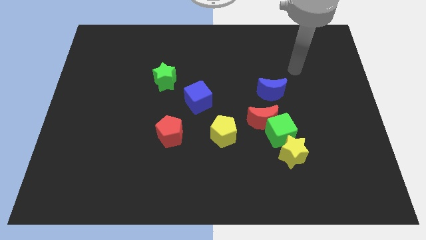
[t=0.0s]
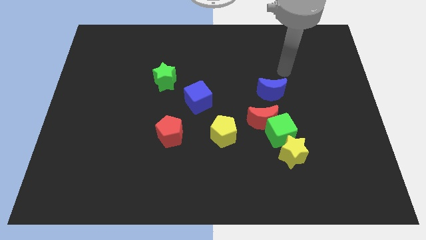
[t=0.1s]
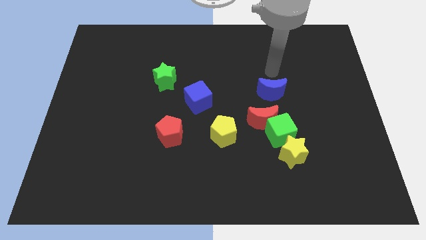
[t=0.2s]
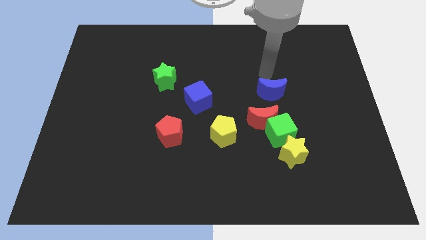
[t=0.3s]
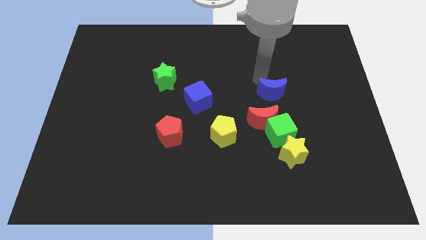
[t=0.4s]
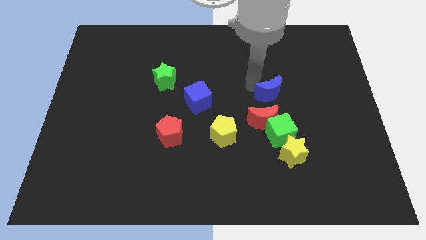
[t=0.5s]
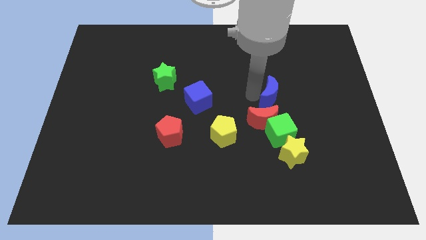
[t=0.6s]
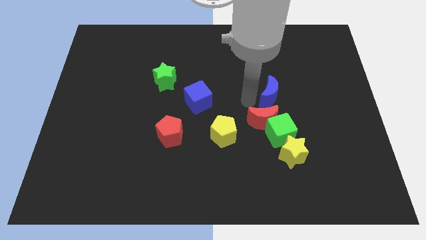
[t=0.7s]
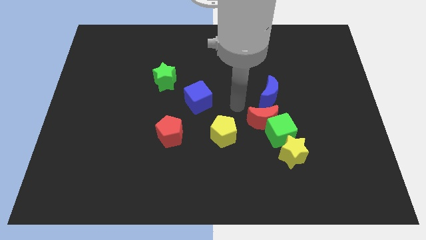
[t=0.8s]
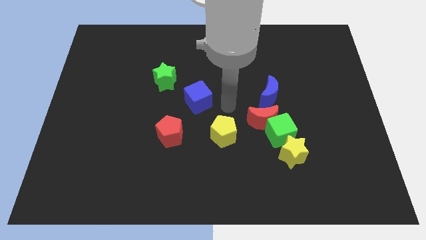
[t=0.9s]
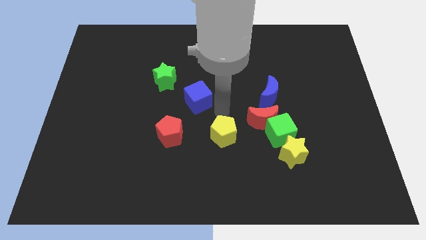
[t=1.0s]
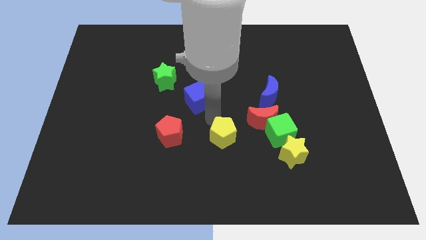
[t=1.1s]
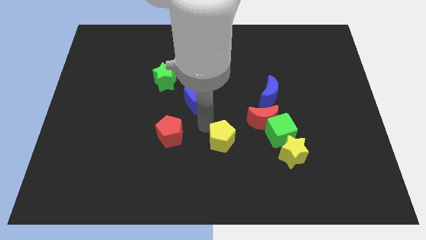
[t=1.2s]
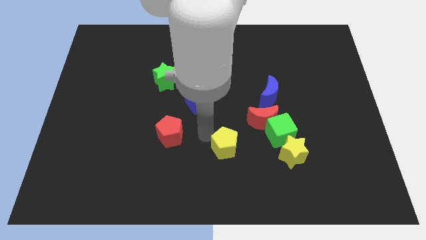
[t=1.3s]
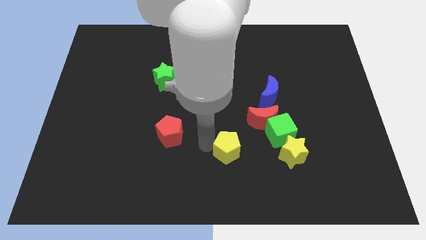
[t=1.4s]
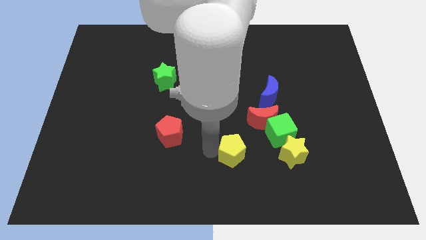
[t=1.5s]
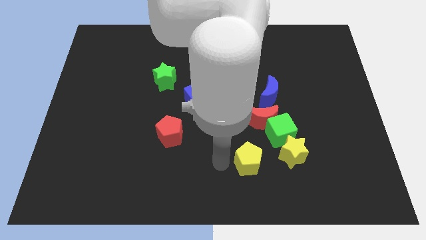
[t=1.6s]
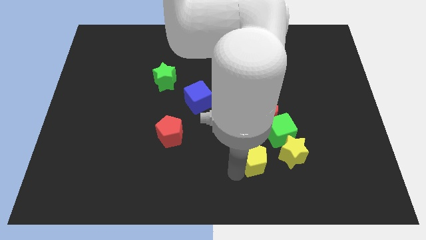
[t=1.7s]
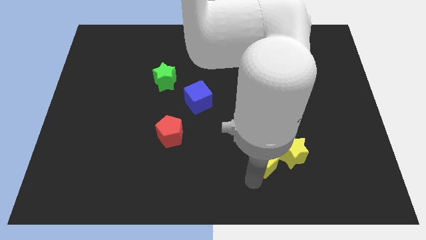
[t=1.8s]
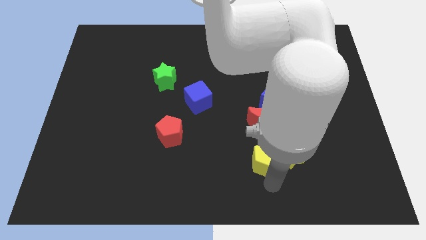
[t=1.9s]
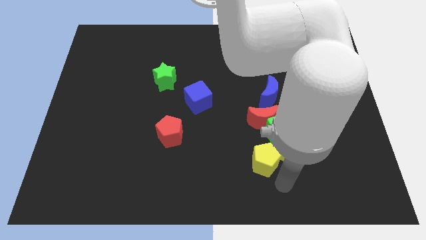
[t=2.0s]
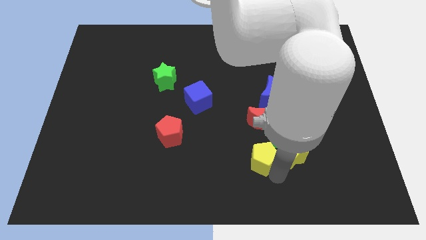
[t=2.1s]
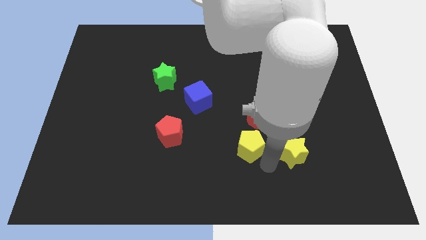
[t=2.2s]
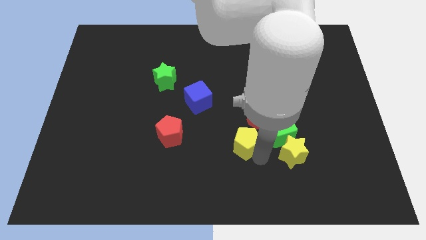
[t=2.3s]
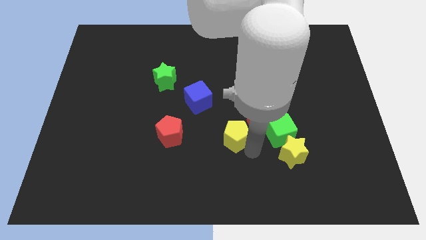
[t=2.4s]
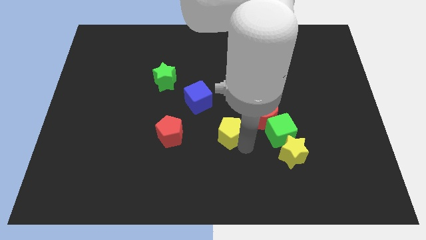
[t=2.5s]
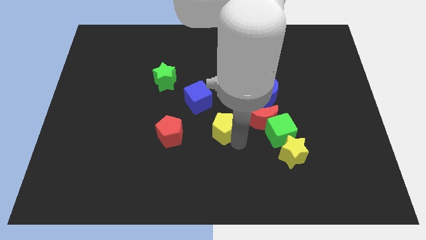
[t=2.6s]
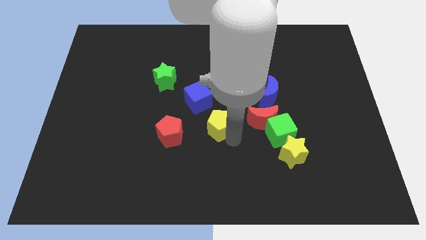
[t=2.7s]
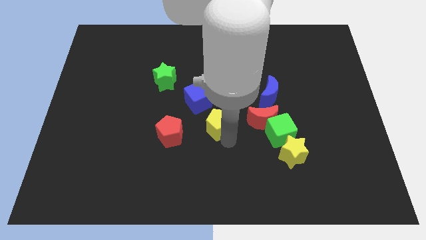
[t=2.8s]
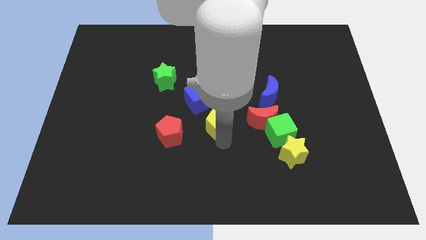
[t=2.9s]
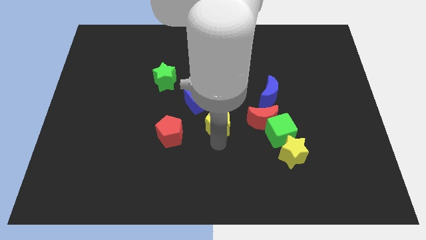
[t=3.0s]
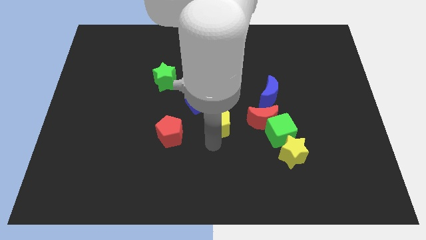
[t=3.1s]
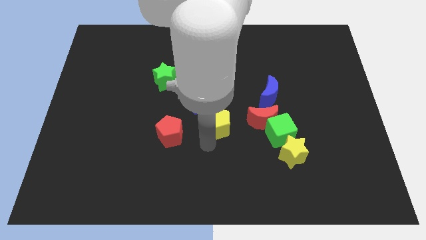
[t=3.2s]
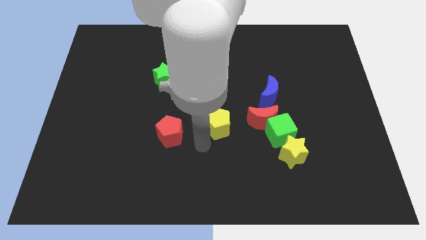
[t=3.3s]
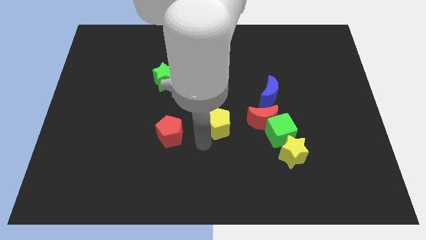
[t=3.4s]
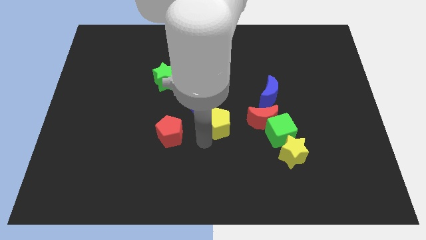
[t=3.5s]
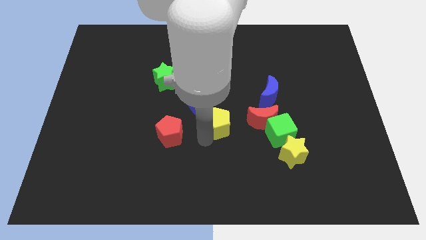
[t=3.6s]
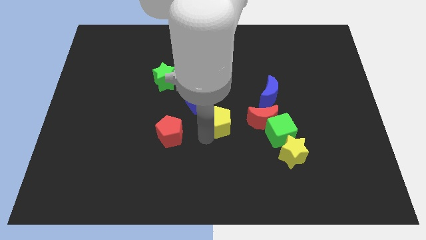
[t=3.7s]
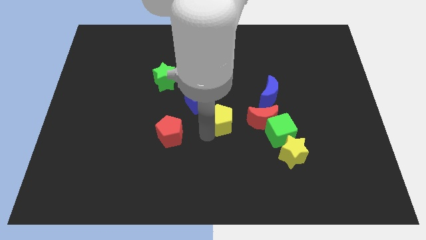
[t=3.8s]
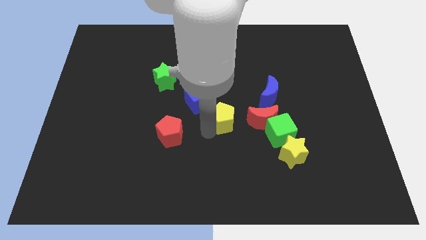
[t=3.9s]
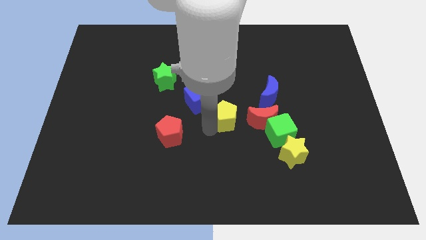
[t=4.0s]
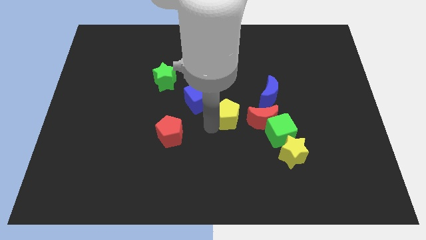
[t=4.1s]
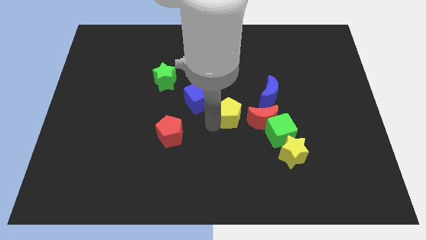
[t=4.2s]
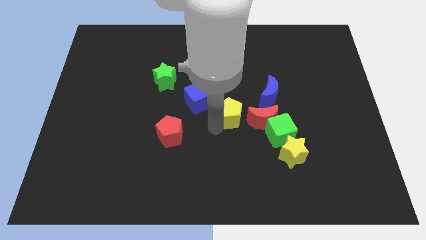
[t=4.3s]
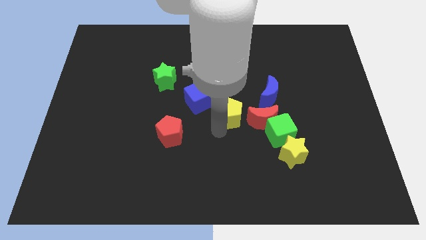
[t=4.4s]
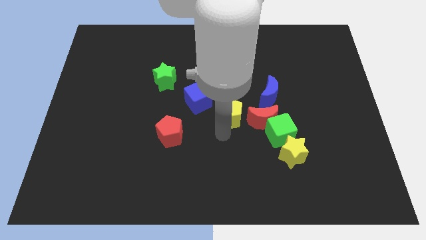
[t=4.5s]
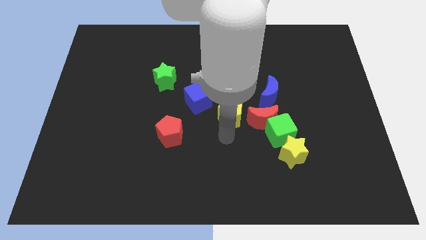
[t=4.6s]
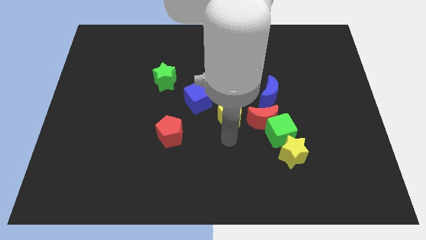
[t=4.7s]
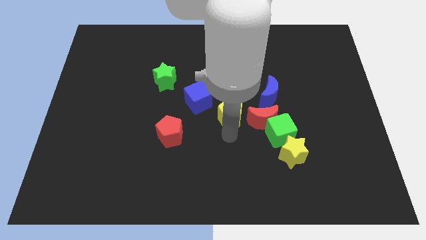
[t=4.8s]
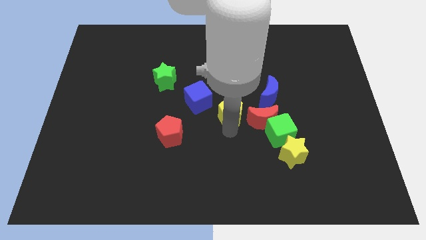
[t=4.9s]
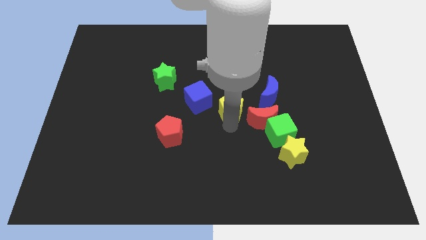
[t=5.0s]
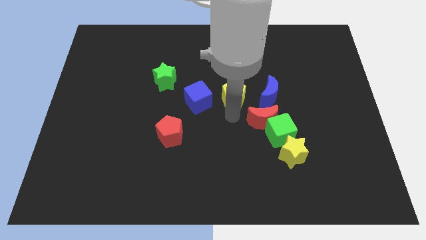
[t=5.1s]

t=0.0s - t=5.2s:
push the yellow pentagon upwards somewhat

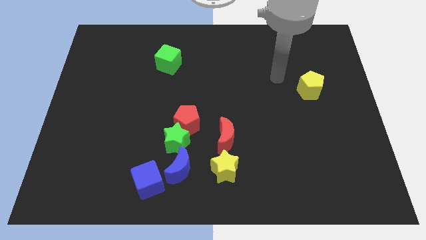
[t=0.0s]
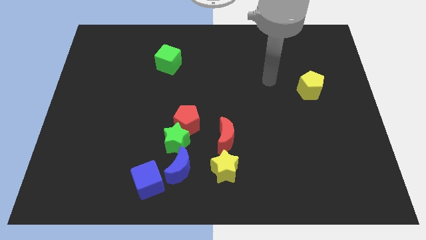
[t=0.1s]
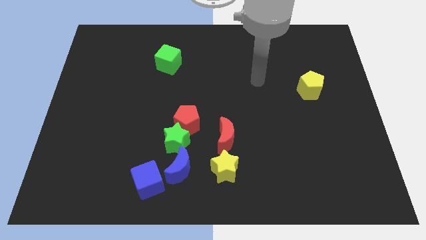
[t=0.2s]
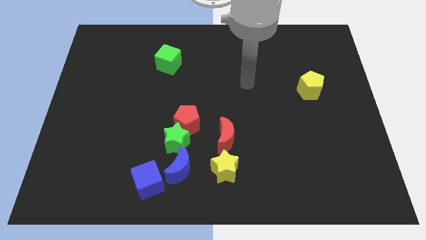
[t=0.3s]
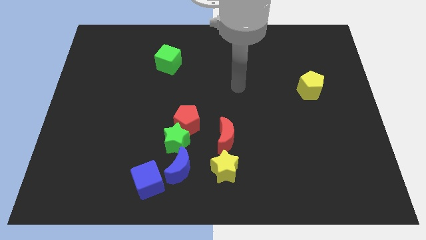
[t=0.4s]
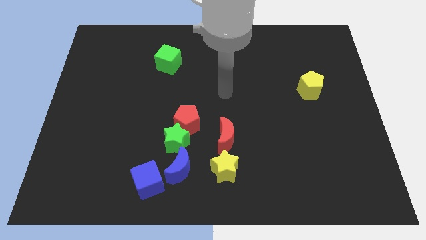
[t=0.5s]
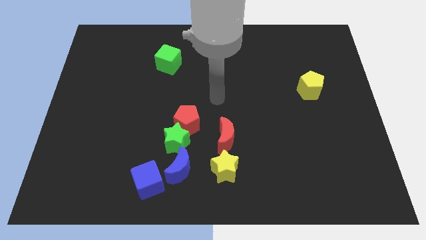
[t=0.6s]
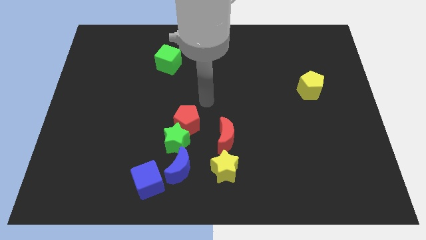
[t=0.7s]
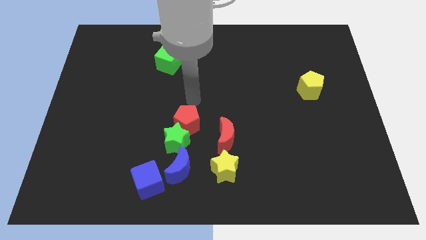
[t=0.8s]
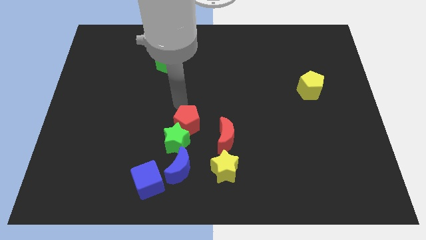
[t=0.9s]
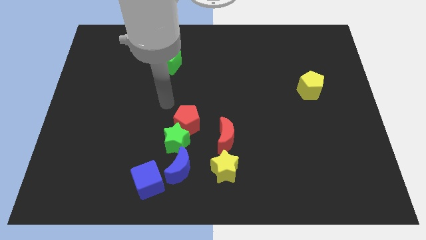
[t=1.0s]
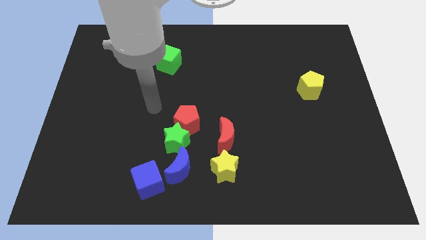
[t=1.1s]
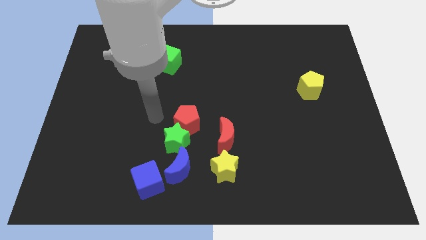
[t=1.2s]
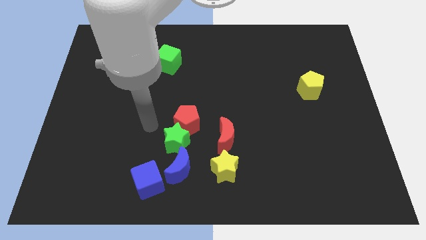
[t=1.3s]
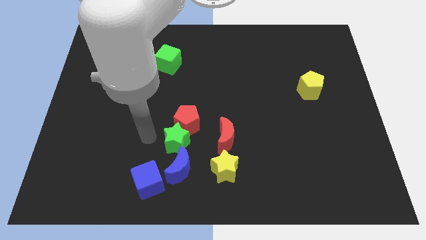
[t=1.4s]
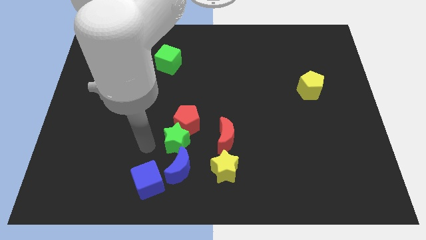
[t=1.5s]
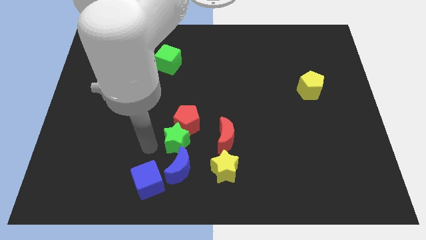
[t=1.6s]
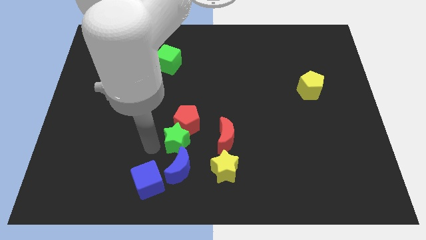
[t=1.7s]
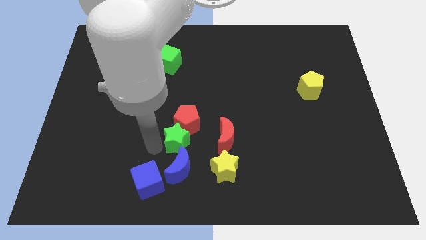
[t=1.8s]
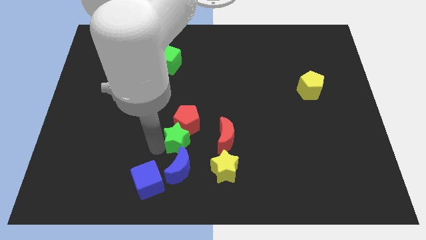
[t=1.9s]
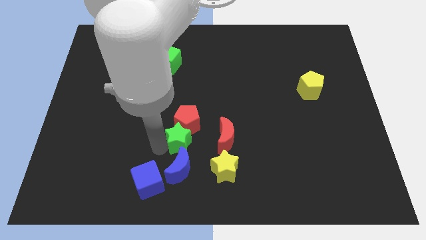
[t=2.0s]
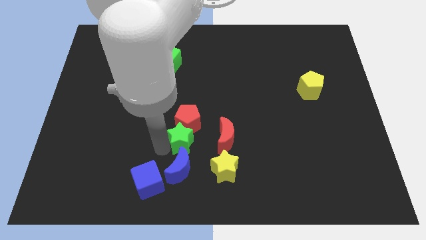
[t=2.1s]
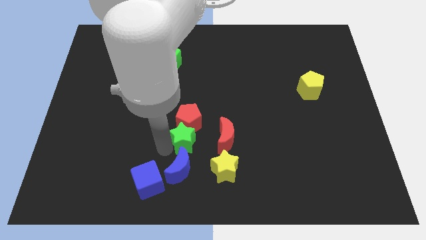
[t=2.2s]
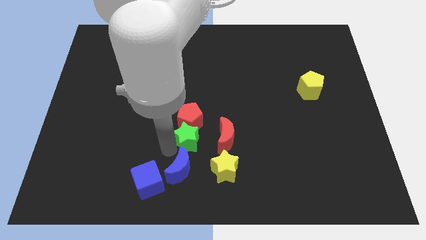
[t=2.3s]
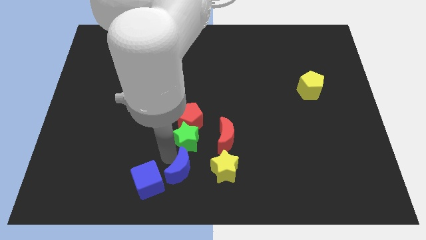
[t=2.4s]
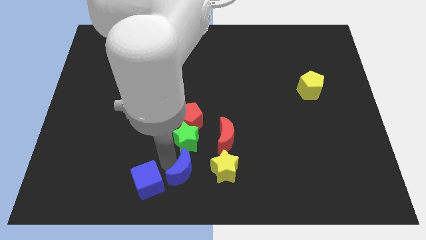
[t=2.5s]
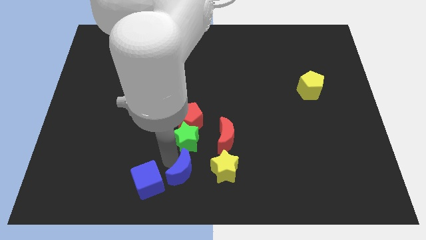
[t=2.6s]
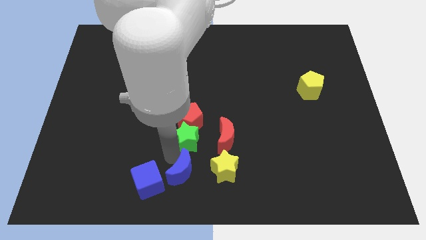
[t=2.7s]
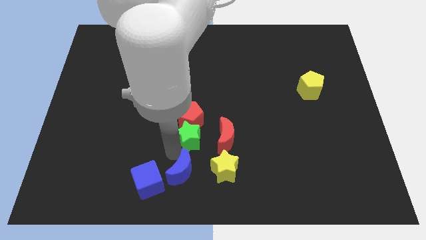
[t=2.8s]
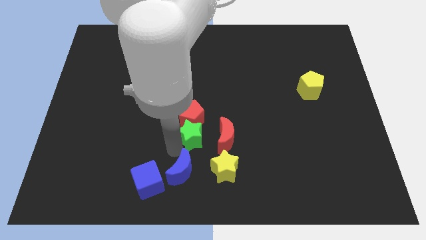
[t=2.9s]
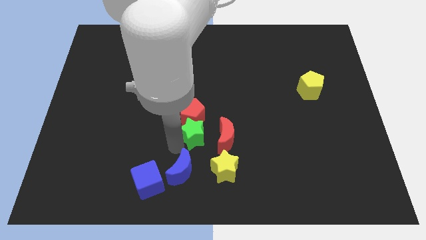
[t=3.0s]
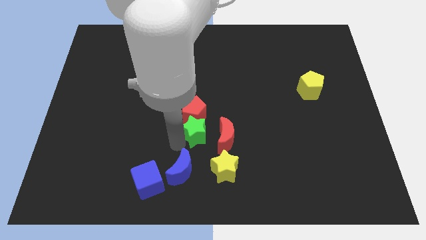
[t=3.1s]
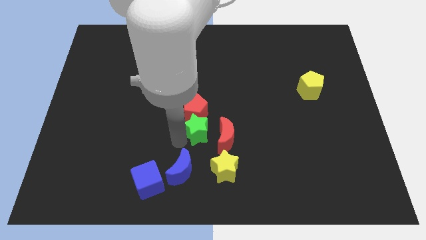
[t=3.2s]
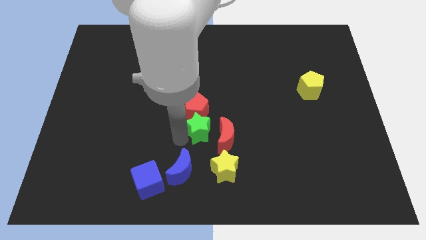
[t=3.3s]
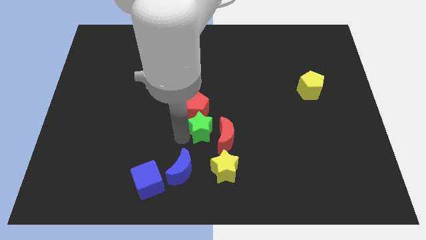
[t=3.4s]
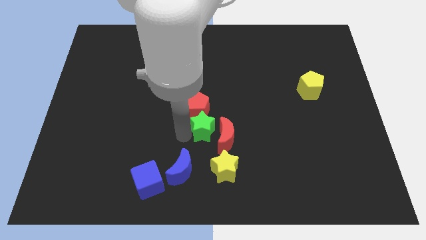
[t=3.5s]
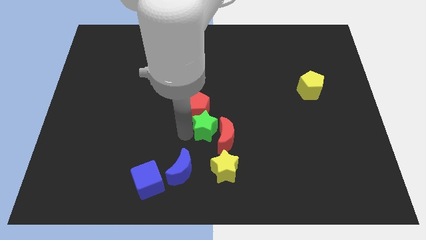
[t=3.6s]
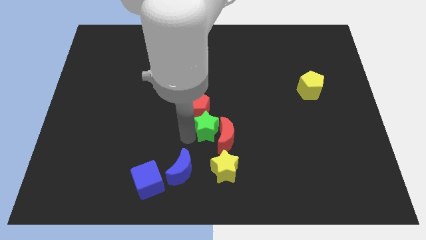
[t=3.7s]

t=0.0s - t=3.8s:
slide the green star up and right diagonally slightly
